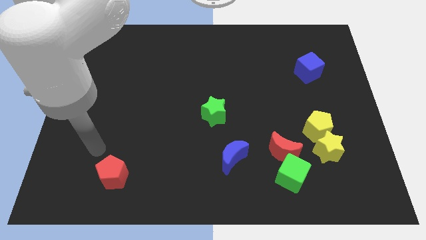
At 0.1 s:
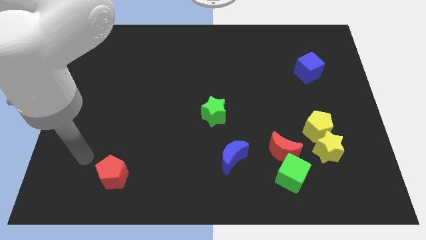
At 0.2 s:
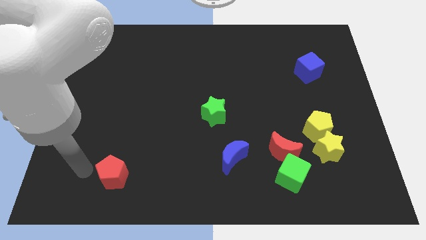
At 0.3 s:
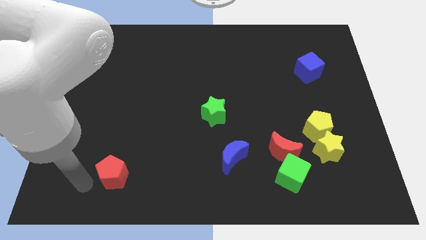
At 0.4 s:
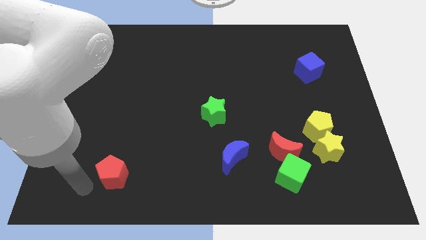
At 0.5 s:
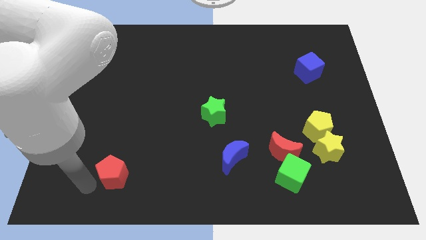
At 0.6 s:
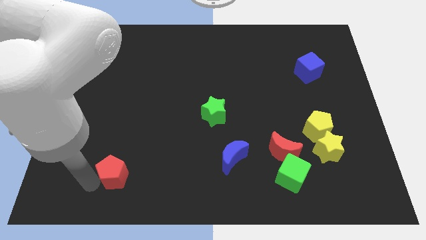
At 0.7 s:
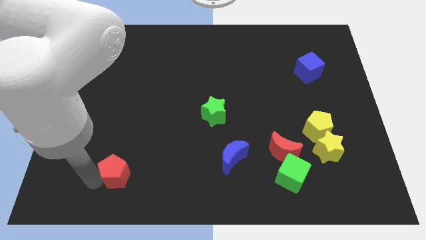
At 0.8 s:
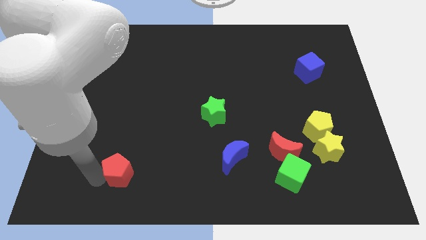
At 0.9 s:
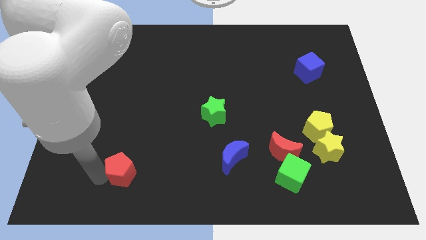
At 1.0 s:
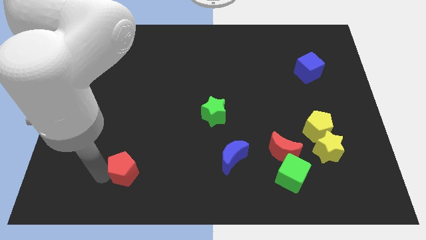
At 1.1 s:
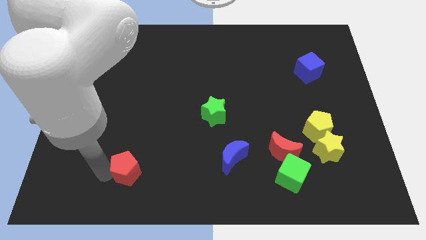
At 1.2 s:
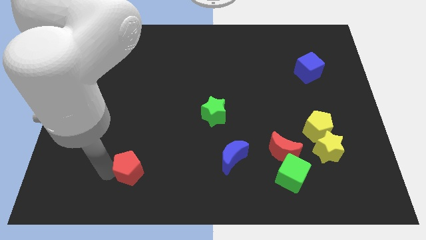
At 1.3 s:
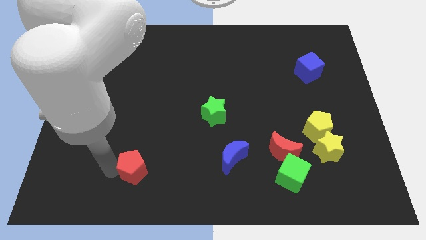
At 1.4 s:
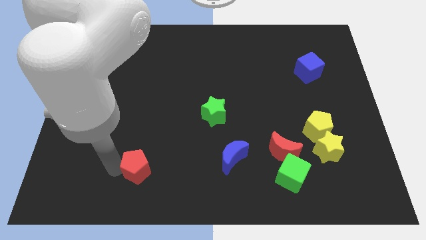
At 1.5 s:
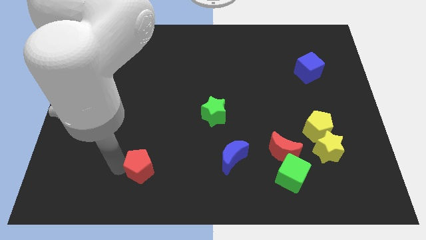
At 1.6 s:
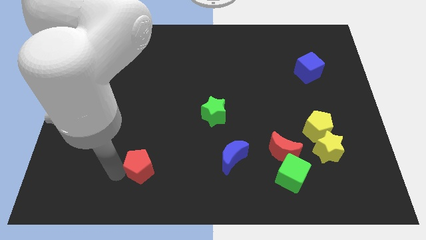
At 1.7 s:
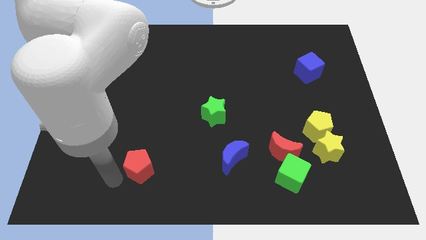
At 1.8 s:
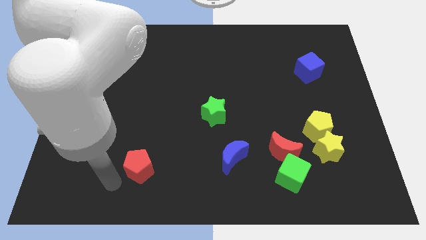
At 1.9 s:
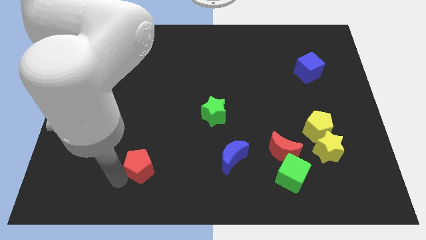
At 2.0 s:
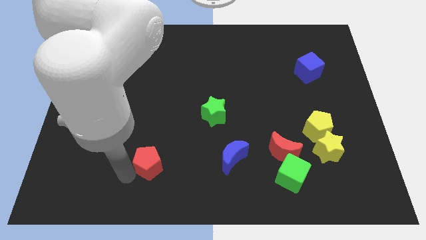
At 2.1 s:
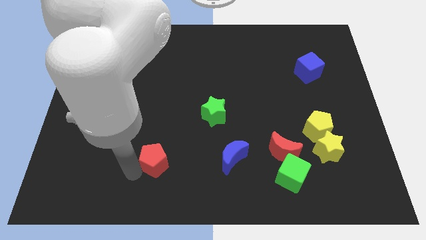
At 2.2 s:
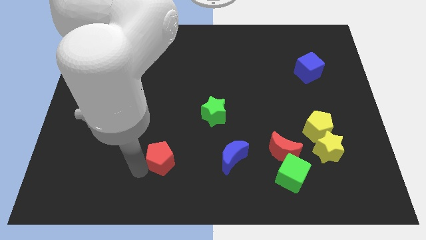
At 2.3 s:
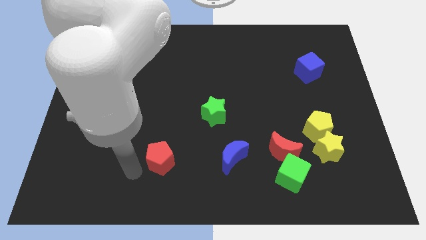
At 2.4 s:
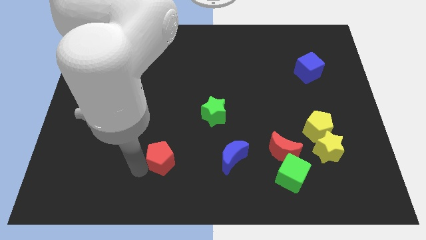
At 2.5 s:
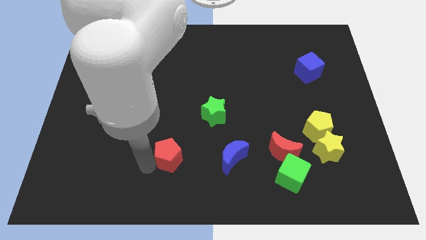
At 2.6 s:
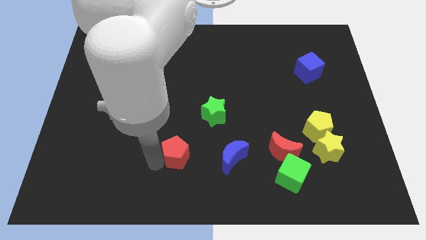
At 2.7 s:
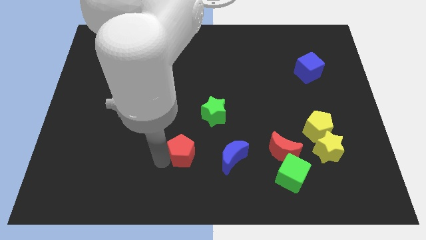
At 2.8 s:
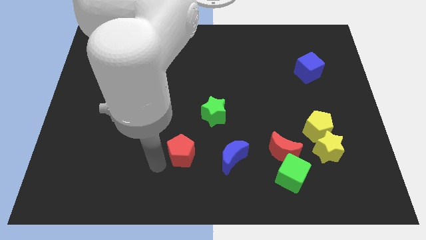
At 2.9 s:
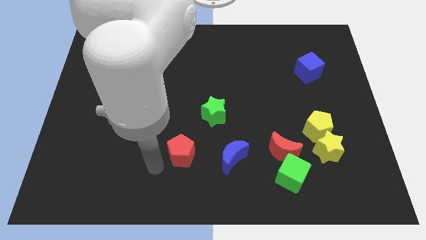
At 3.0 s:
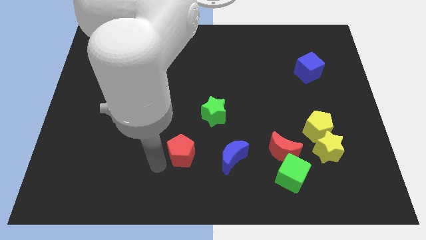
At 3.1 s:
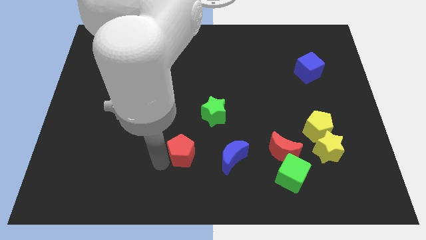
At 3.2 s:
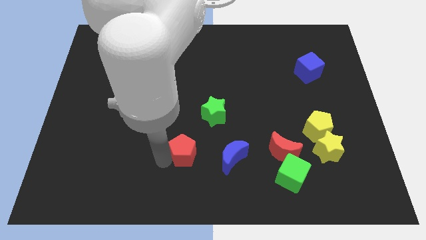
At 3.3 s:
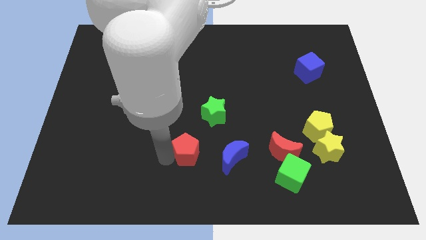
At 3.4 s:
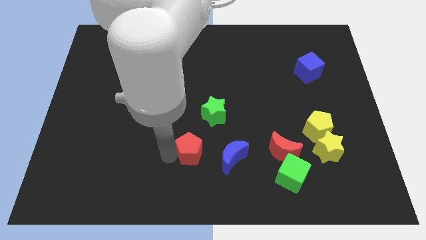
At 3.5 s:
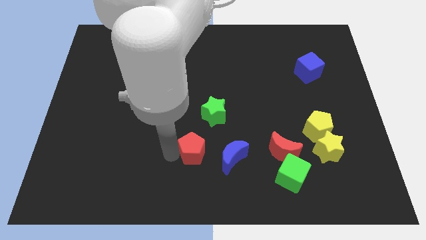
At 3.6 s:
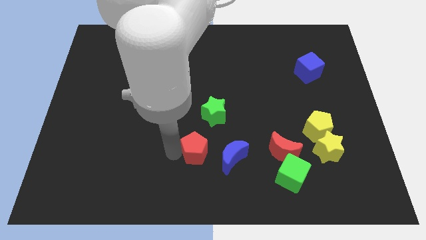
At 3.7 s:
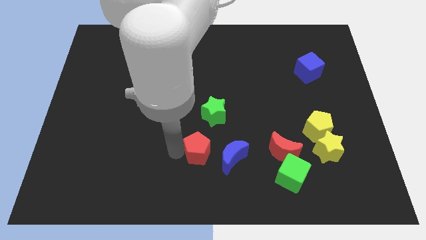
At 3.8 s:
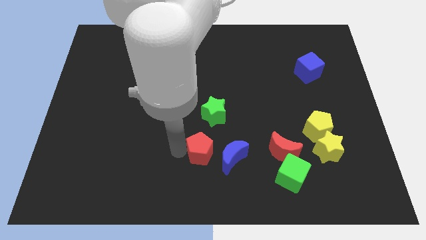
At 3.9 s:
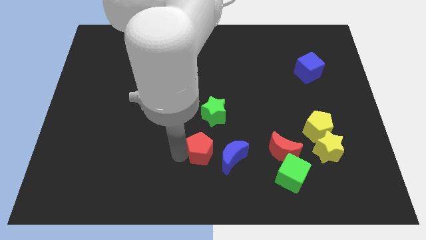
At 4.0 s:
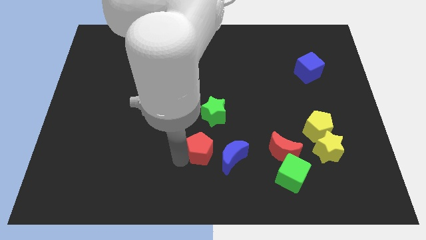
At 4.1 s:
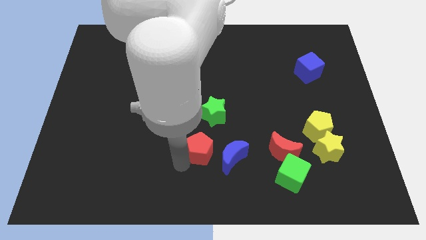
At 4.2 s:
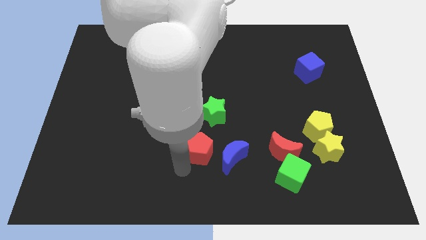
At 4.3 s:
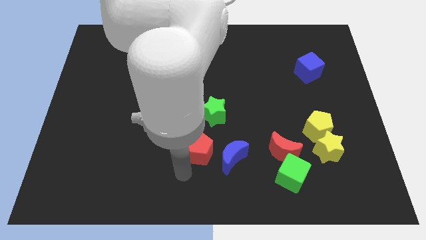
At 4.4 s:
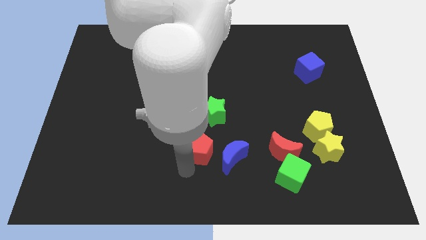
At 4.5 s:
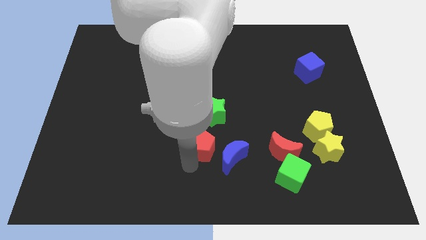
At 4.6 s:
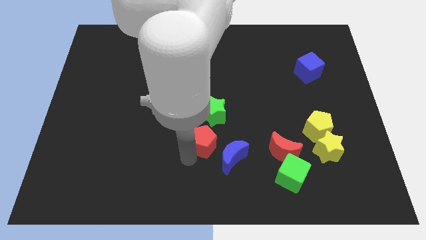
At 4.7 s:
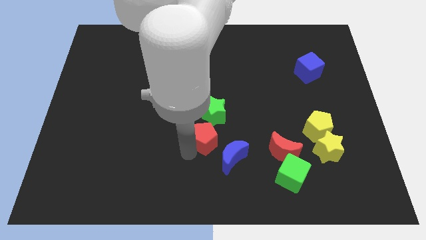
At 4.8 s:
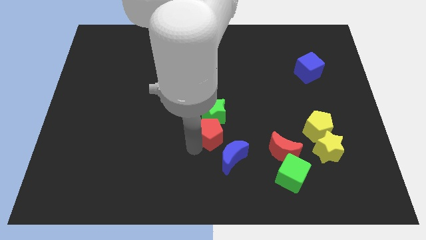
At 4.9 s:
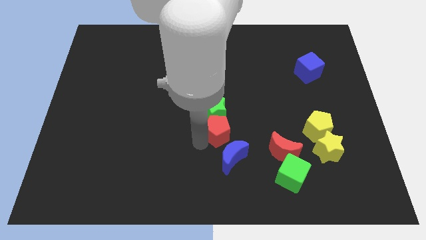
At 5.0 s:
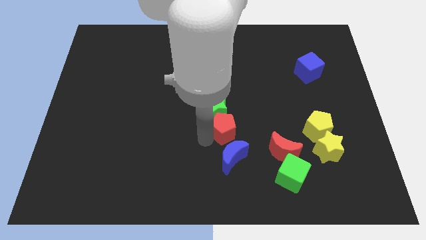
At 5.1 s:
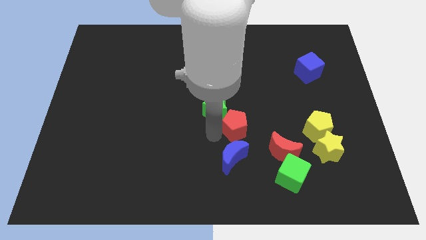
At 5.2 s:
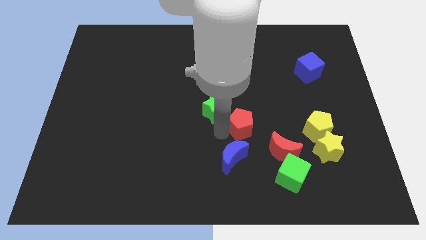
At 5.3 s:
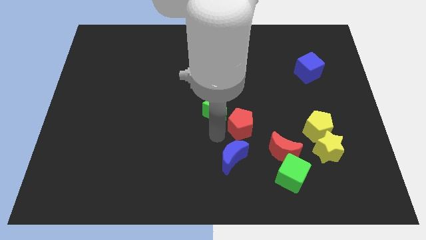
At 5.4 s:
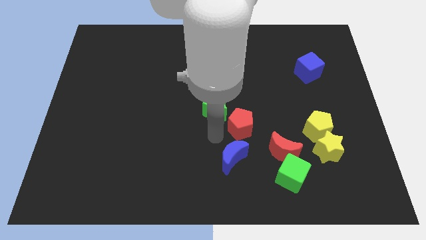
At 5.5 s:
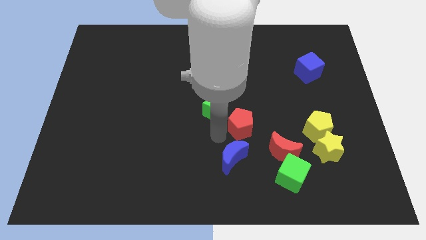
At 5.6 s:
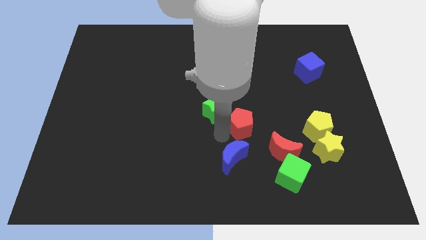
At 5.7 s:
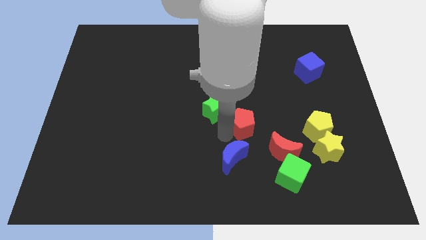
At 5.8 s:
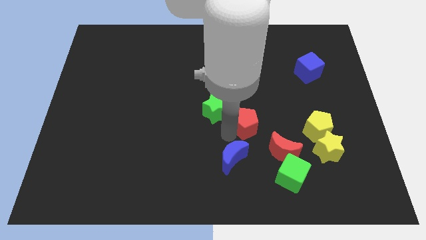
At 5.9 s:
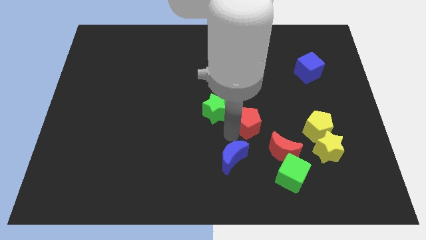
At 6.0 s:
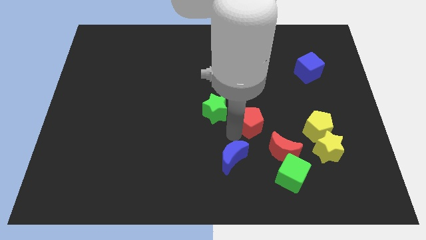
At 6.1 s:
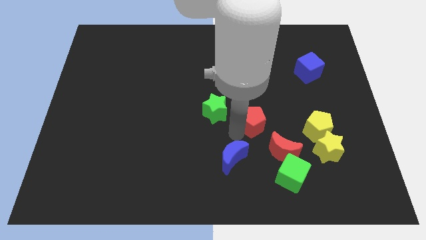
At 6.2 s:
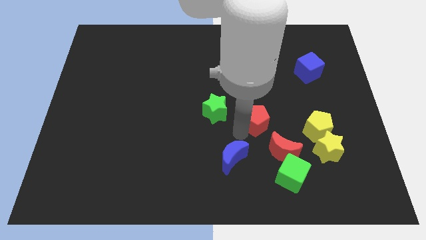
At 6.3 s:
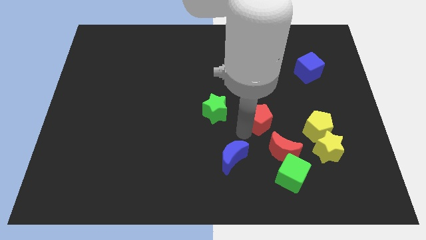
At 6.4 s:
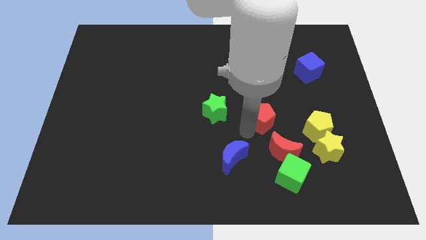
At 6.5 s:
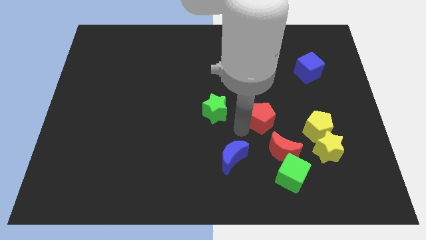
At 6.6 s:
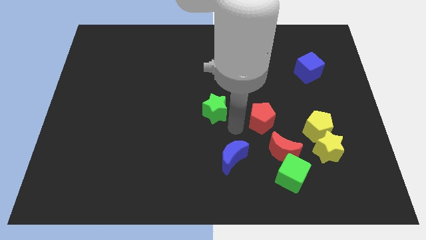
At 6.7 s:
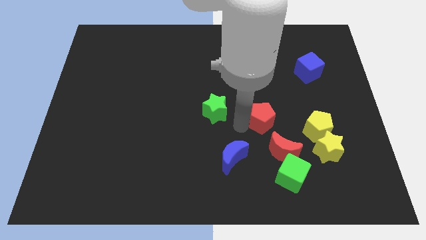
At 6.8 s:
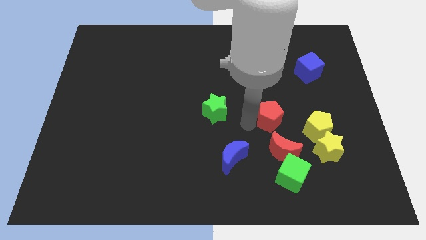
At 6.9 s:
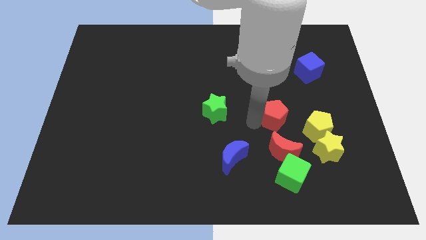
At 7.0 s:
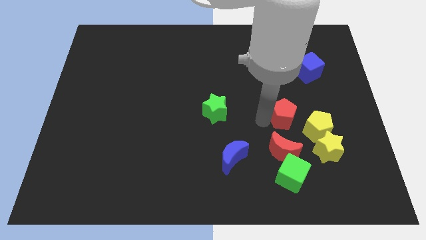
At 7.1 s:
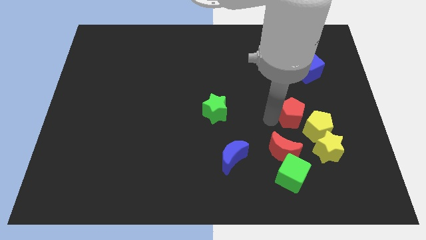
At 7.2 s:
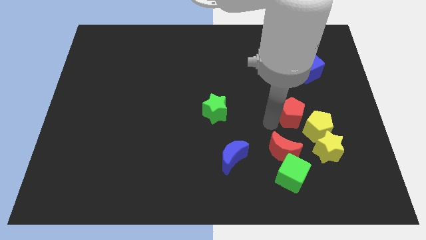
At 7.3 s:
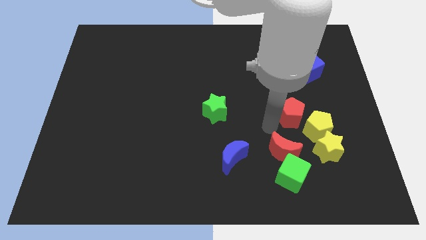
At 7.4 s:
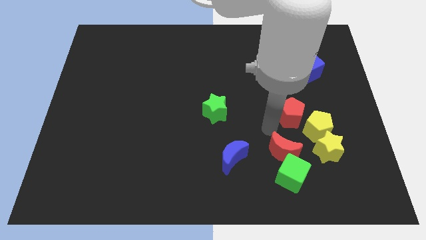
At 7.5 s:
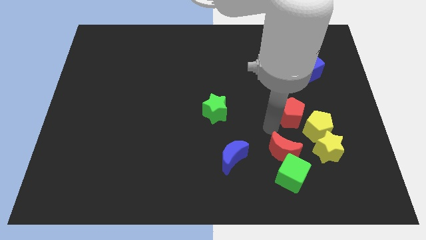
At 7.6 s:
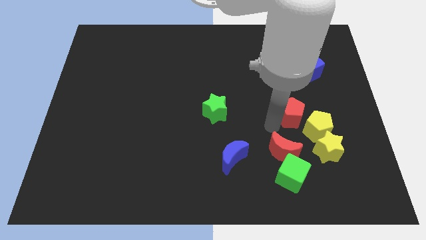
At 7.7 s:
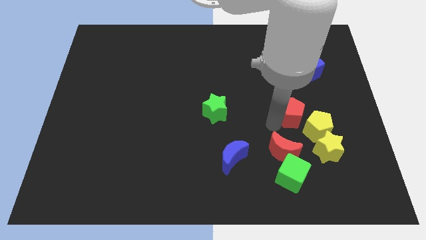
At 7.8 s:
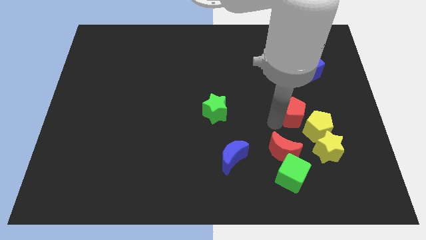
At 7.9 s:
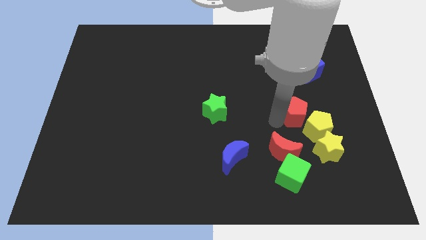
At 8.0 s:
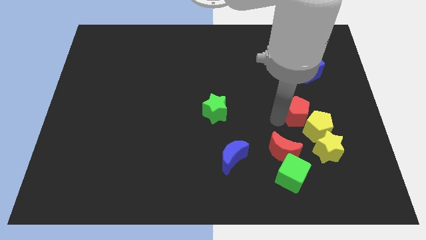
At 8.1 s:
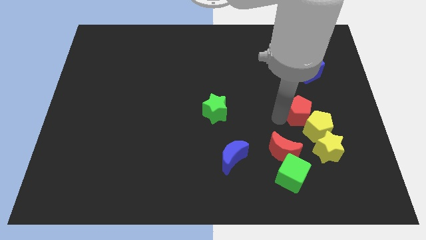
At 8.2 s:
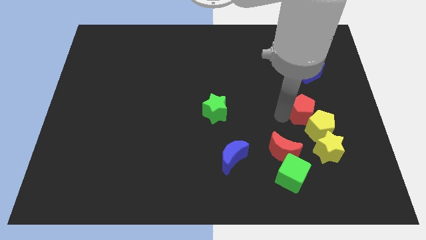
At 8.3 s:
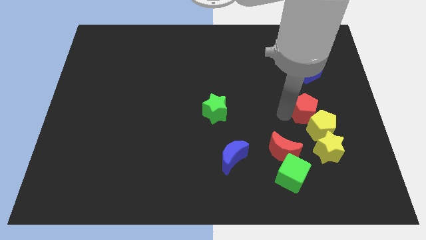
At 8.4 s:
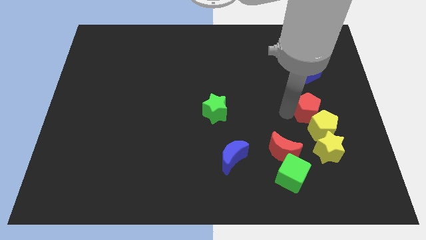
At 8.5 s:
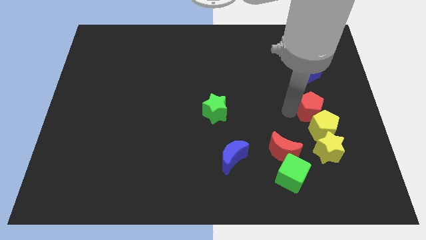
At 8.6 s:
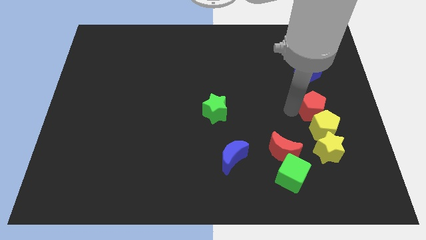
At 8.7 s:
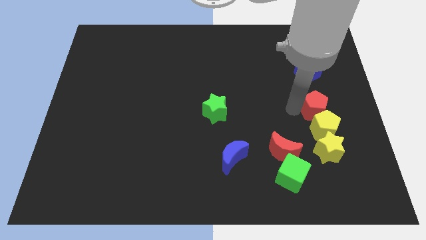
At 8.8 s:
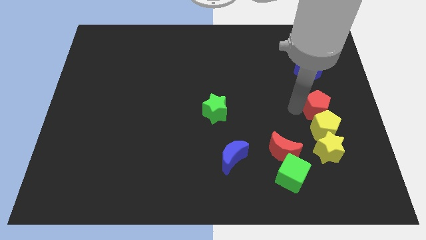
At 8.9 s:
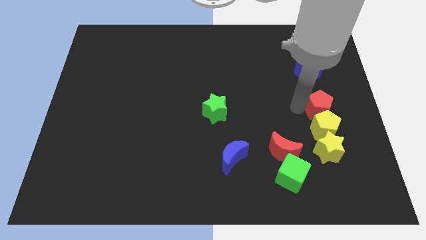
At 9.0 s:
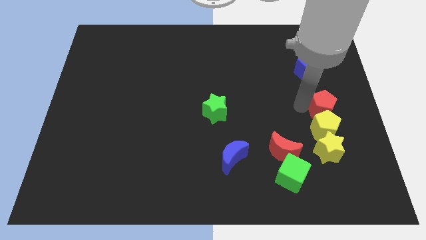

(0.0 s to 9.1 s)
slide the red pentagon to the center right
